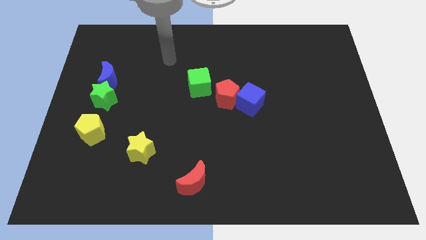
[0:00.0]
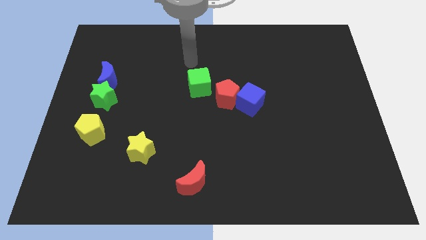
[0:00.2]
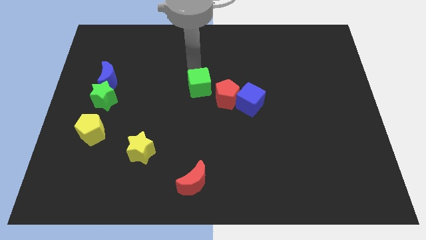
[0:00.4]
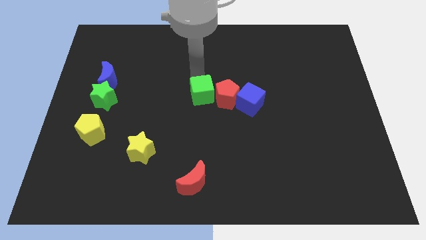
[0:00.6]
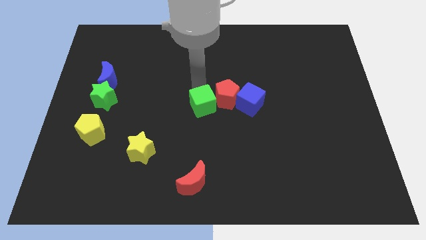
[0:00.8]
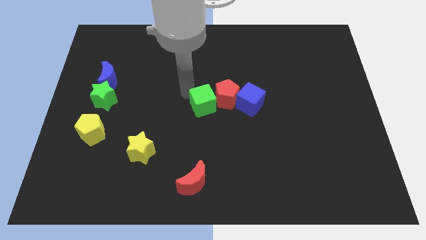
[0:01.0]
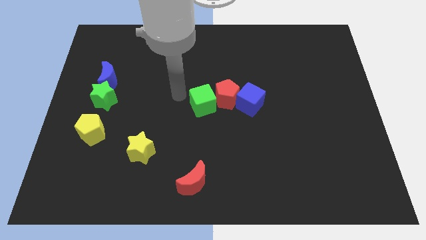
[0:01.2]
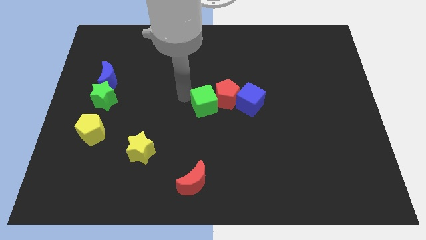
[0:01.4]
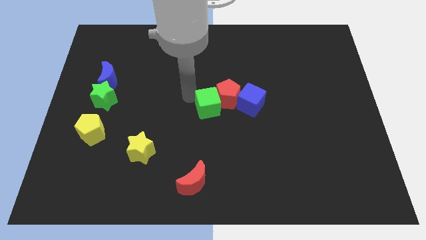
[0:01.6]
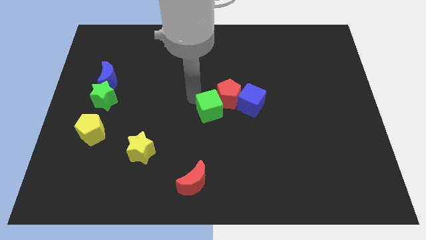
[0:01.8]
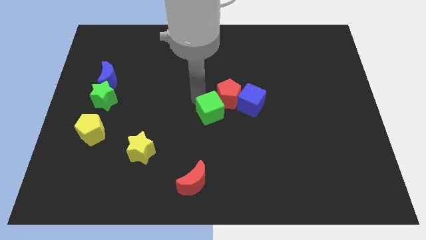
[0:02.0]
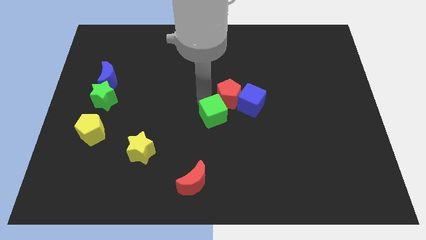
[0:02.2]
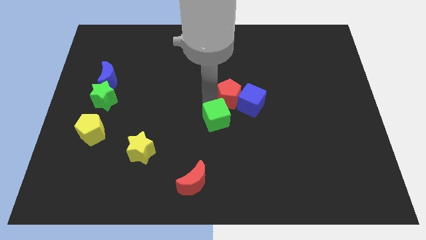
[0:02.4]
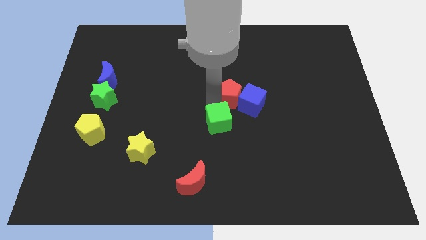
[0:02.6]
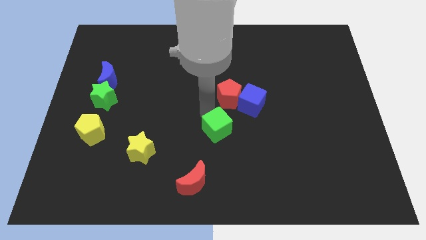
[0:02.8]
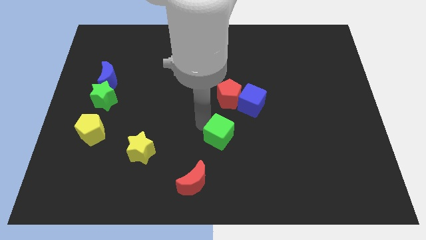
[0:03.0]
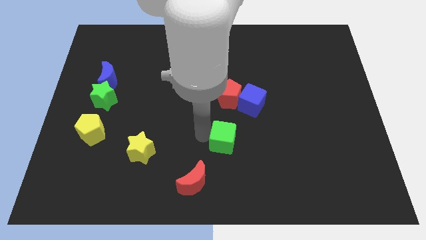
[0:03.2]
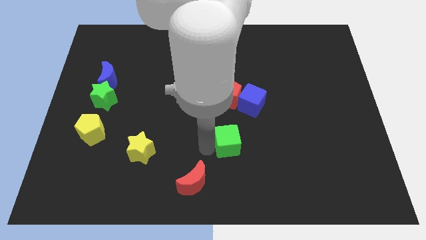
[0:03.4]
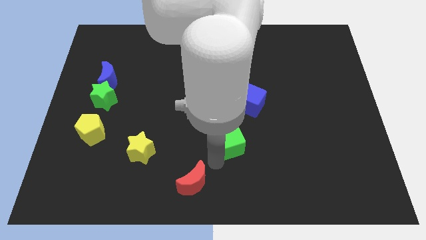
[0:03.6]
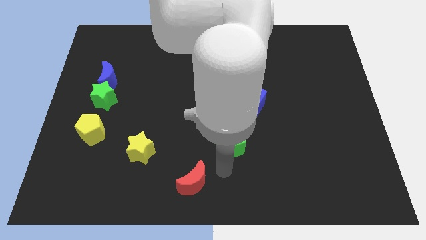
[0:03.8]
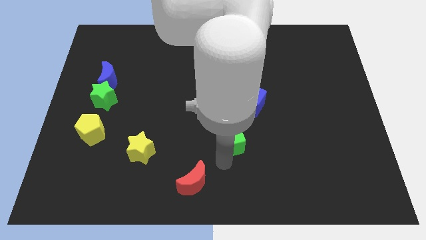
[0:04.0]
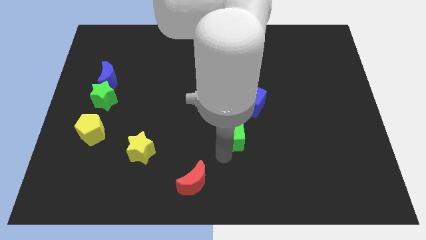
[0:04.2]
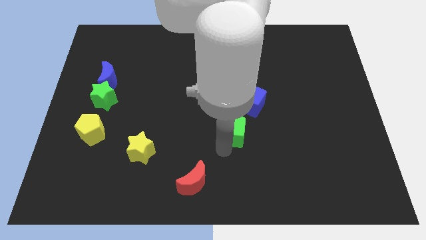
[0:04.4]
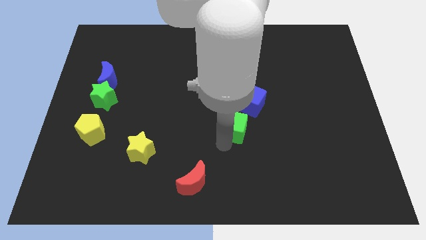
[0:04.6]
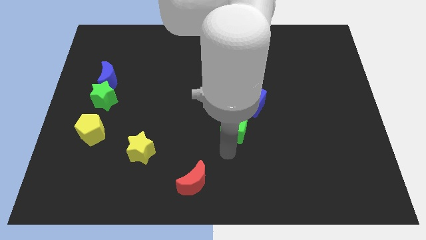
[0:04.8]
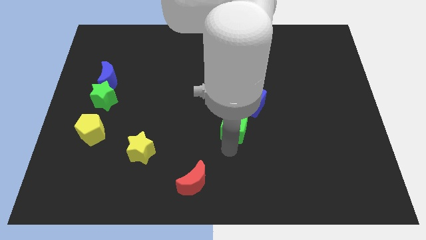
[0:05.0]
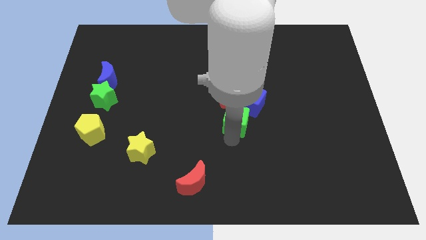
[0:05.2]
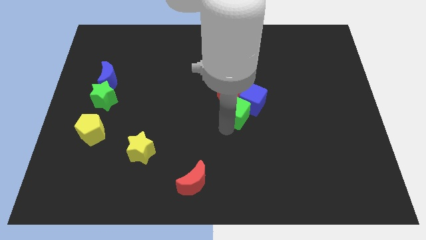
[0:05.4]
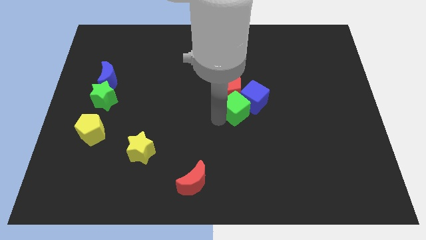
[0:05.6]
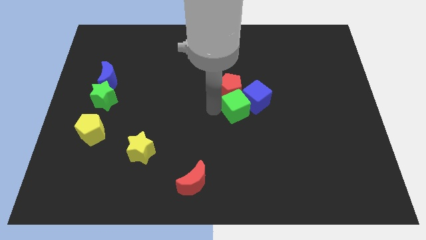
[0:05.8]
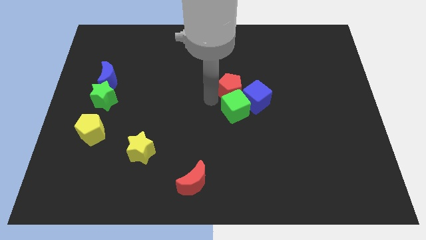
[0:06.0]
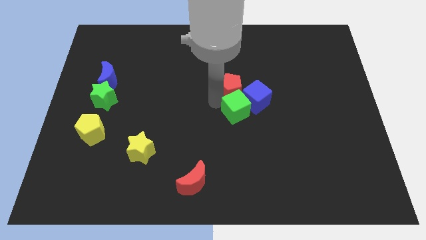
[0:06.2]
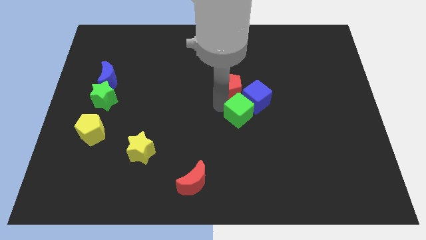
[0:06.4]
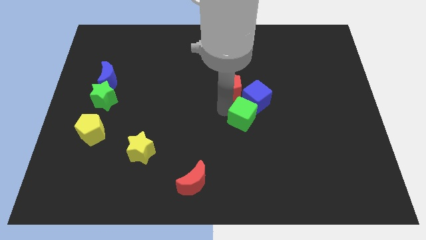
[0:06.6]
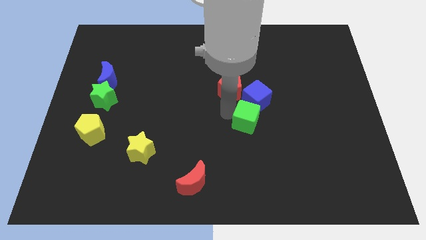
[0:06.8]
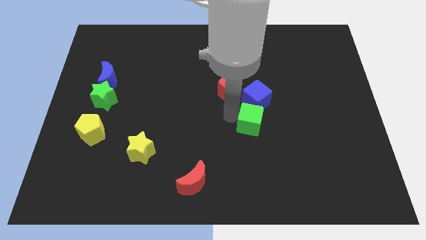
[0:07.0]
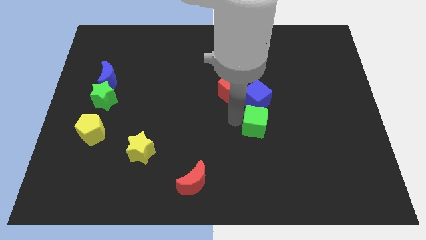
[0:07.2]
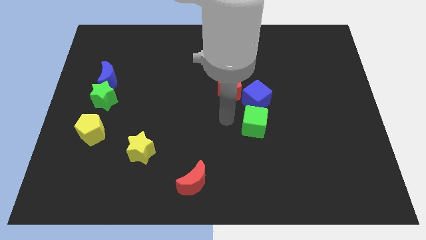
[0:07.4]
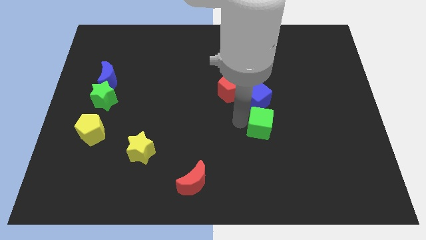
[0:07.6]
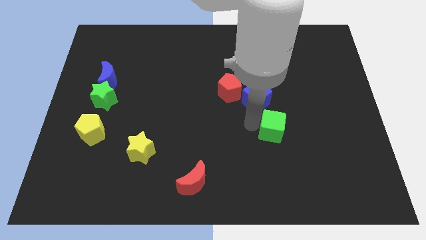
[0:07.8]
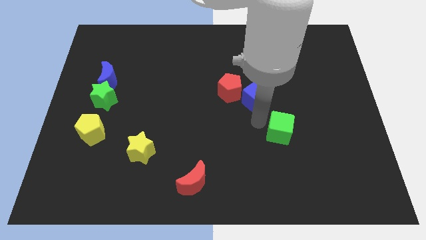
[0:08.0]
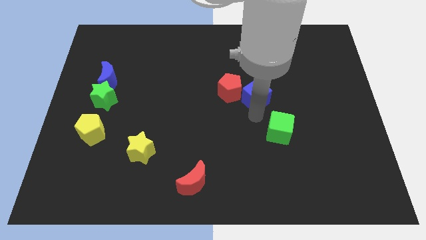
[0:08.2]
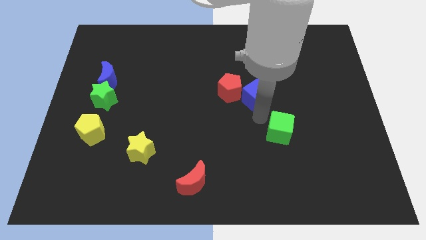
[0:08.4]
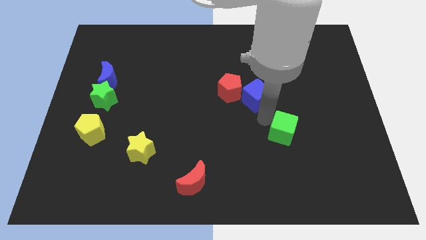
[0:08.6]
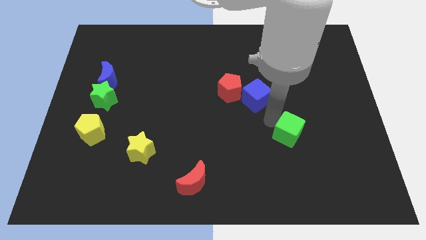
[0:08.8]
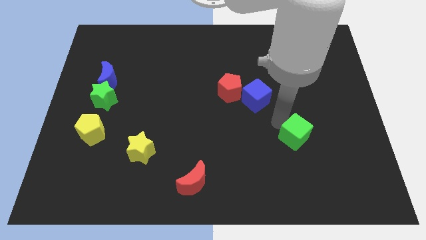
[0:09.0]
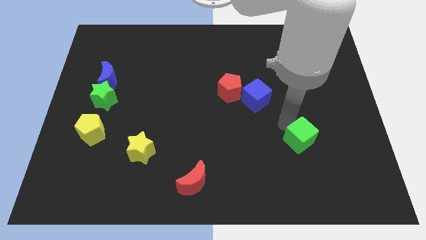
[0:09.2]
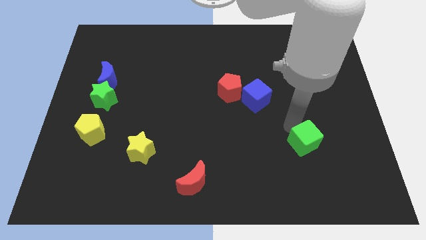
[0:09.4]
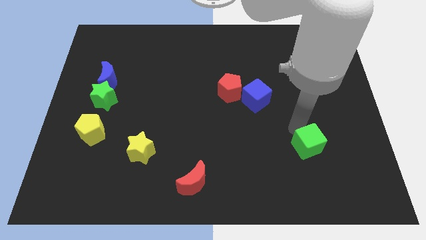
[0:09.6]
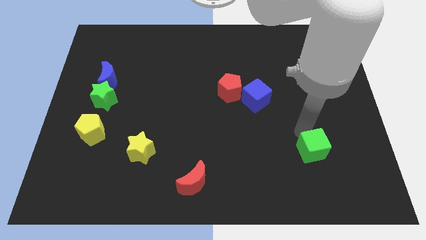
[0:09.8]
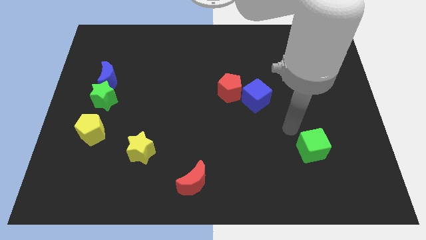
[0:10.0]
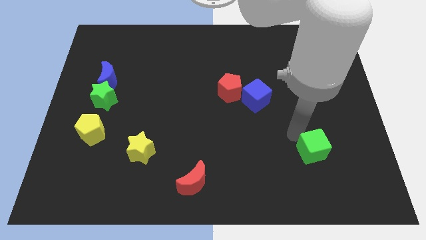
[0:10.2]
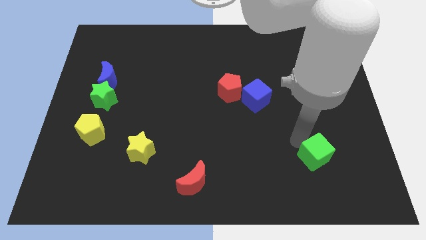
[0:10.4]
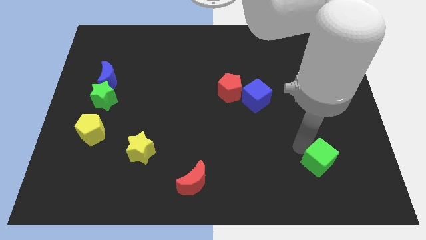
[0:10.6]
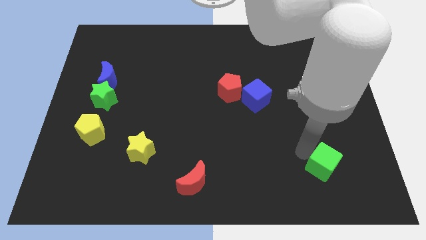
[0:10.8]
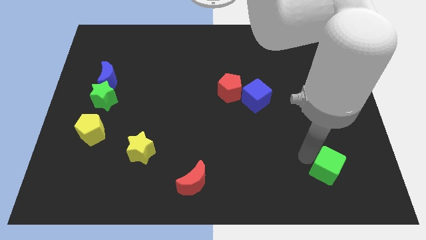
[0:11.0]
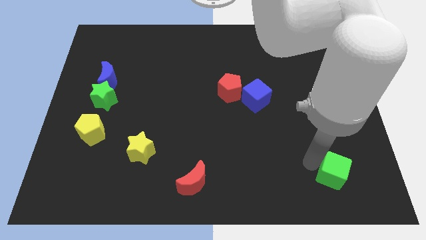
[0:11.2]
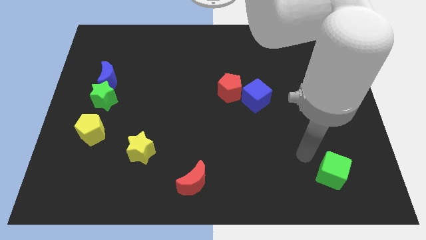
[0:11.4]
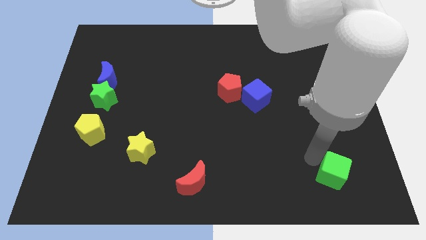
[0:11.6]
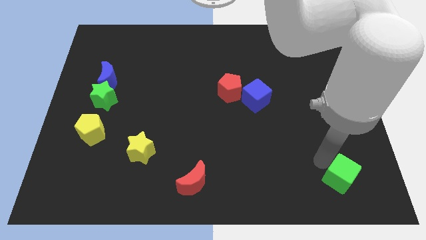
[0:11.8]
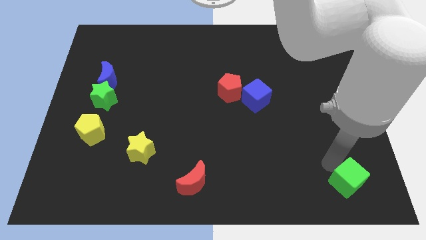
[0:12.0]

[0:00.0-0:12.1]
push the green cube to the bottom right

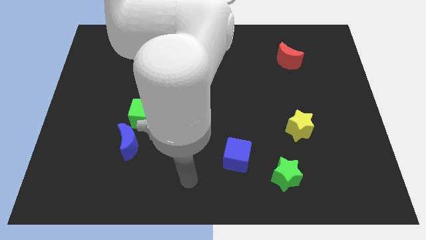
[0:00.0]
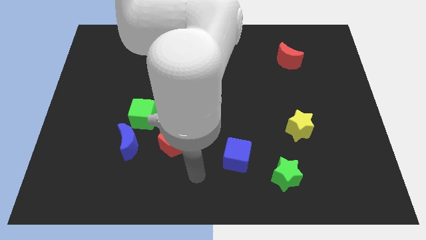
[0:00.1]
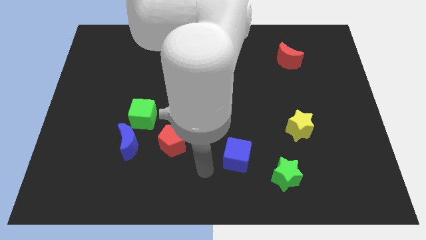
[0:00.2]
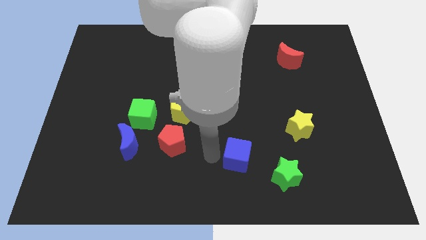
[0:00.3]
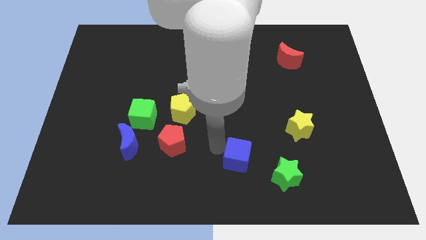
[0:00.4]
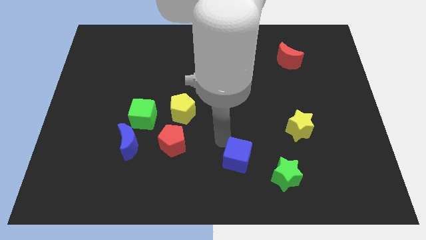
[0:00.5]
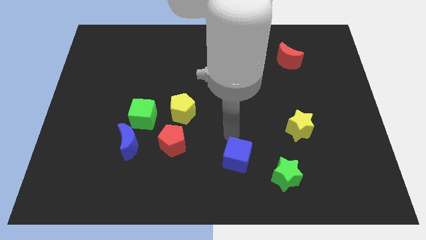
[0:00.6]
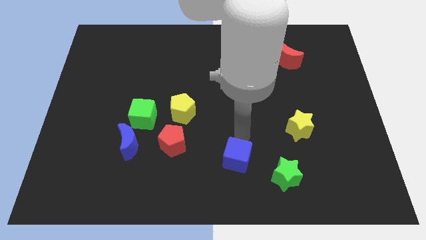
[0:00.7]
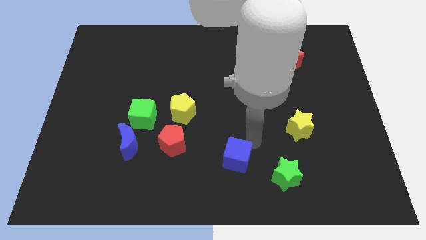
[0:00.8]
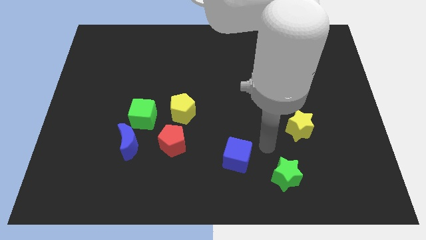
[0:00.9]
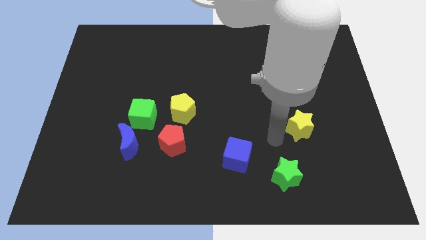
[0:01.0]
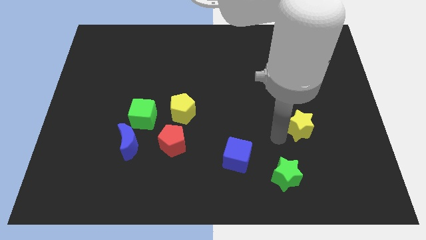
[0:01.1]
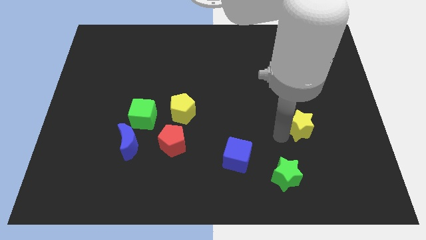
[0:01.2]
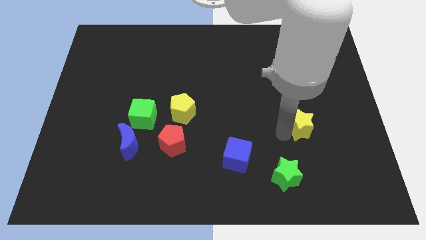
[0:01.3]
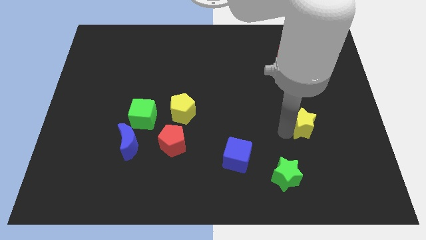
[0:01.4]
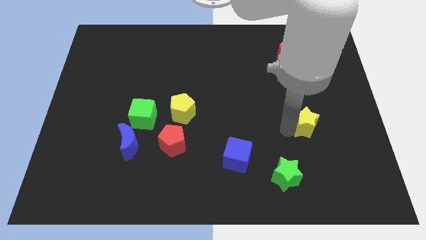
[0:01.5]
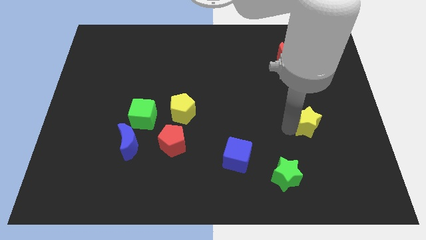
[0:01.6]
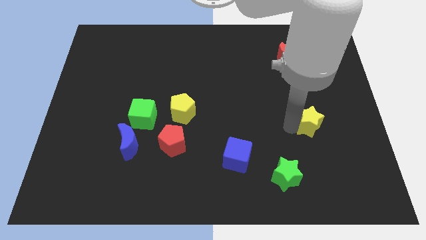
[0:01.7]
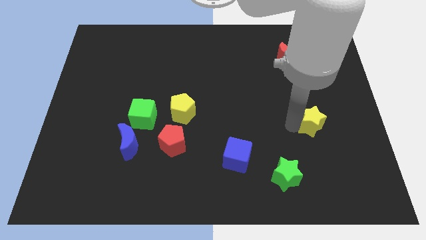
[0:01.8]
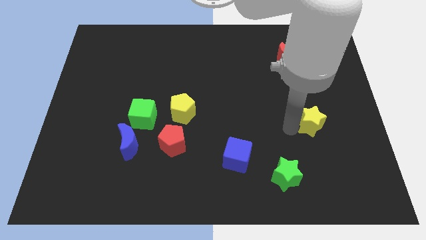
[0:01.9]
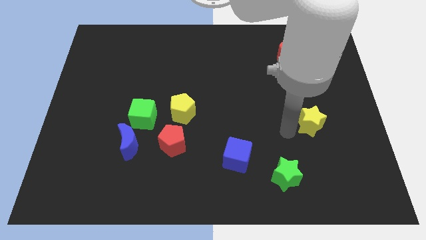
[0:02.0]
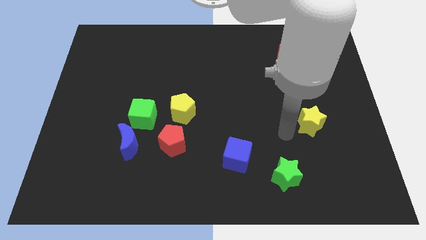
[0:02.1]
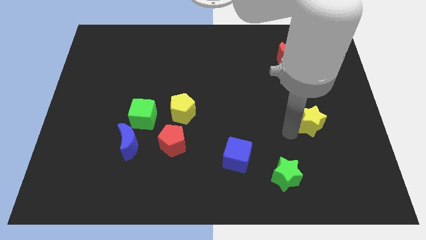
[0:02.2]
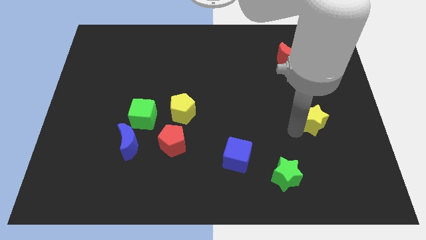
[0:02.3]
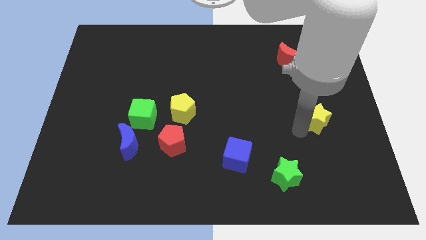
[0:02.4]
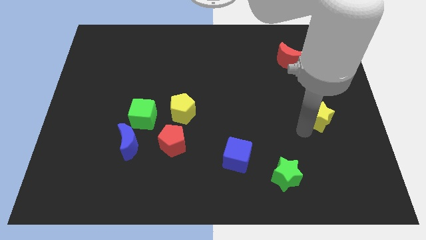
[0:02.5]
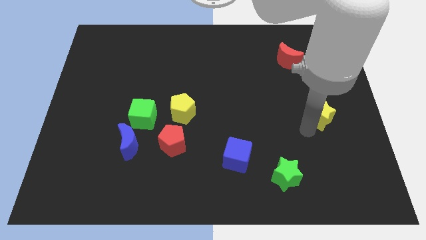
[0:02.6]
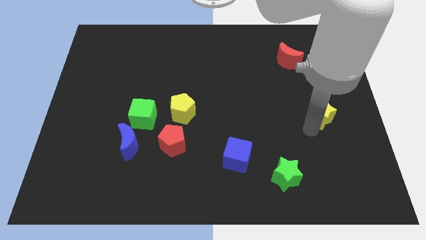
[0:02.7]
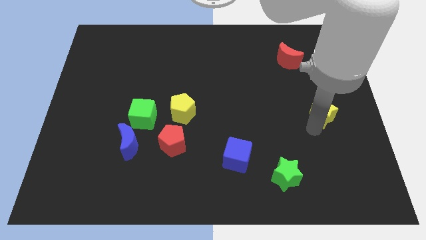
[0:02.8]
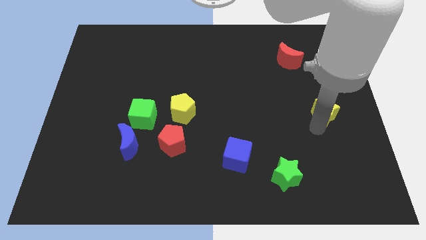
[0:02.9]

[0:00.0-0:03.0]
move the yellow star to the right side
